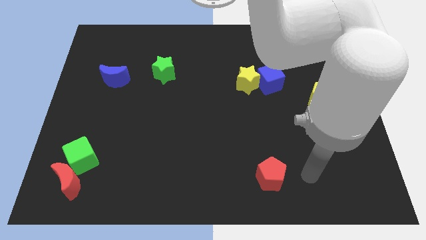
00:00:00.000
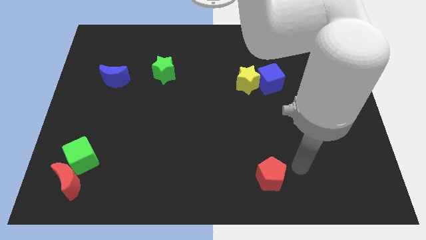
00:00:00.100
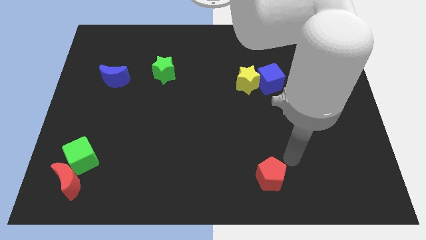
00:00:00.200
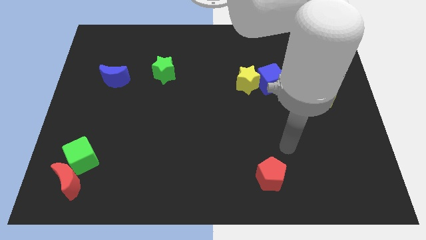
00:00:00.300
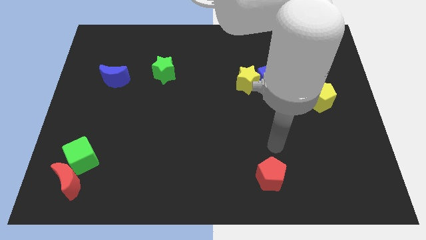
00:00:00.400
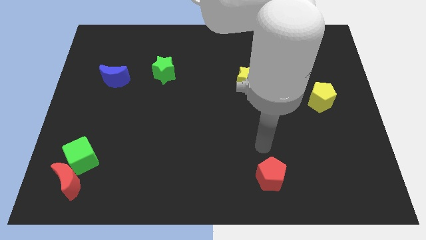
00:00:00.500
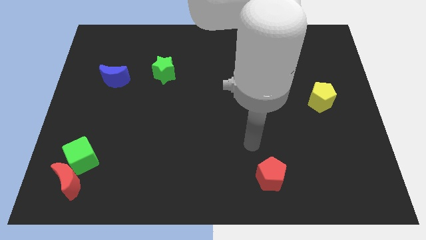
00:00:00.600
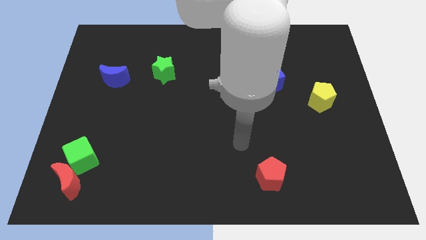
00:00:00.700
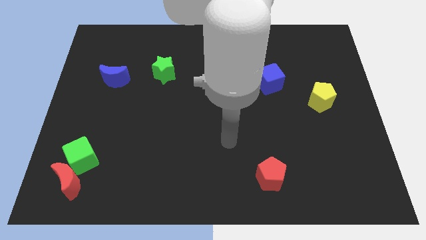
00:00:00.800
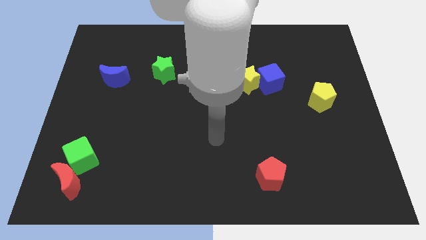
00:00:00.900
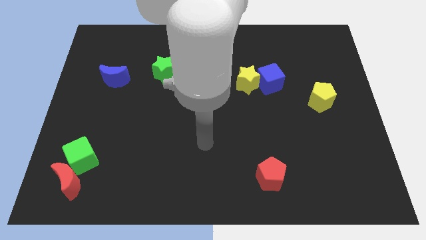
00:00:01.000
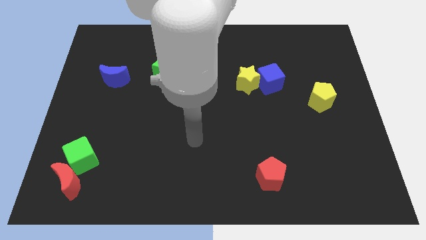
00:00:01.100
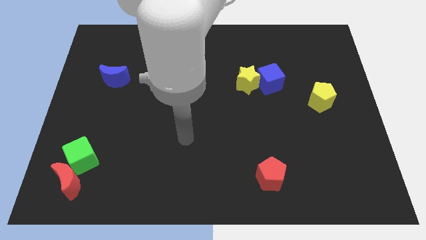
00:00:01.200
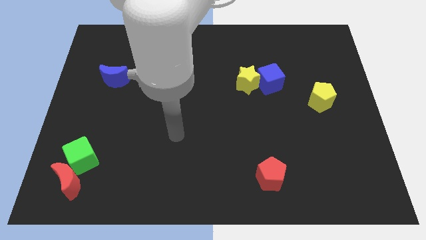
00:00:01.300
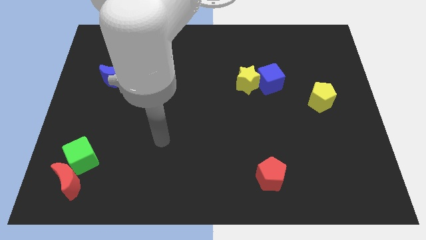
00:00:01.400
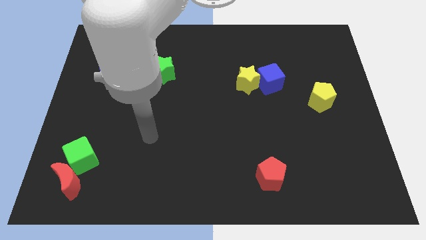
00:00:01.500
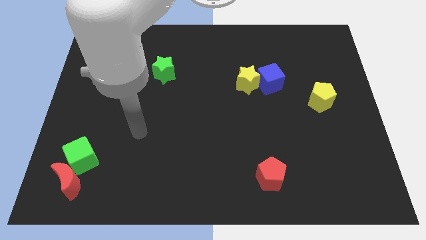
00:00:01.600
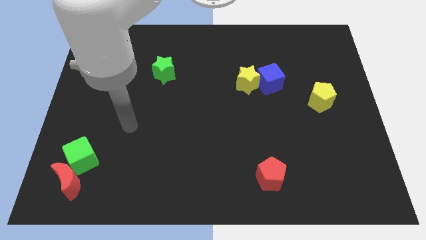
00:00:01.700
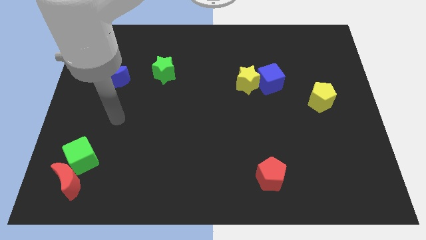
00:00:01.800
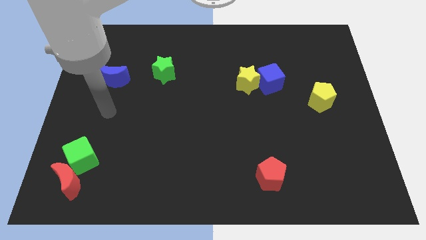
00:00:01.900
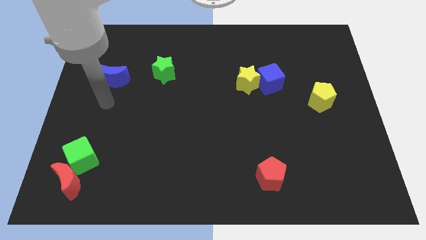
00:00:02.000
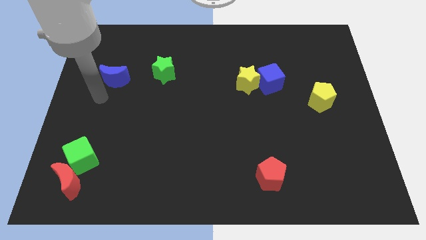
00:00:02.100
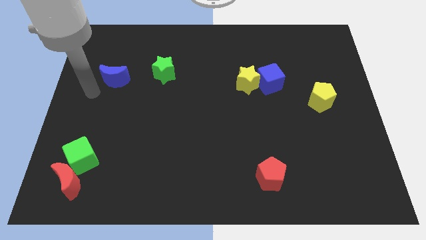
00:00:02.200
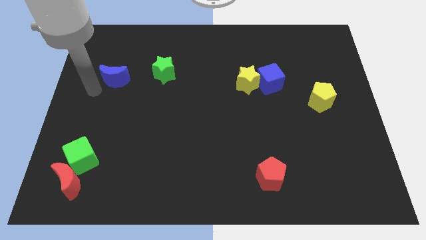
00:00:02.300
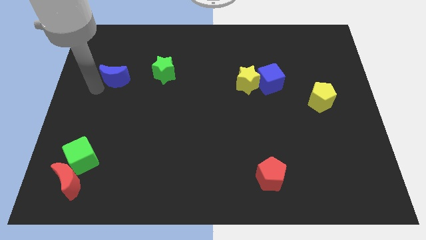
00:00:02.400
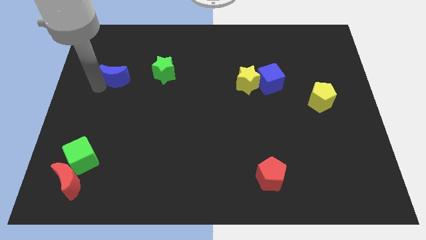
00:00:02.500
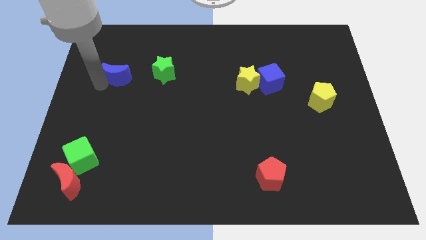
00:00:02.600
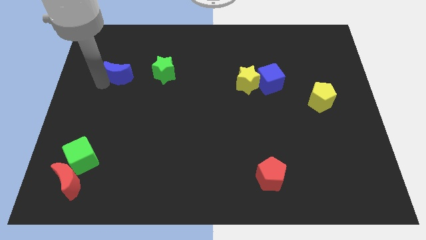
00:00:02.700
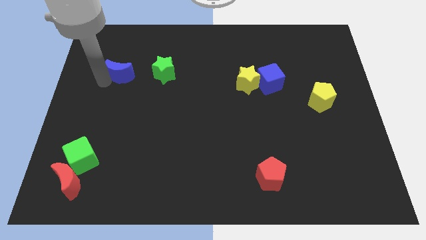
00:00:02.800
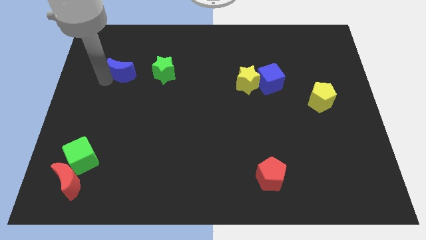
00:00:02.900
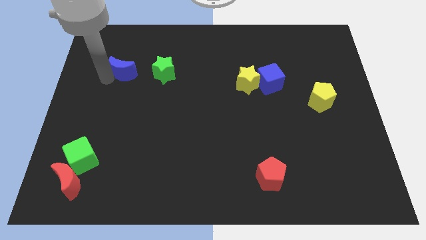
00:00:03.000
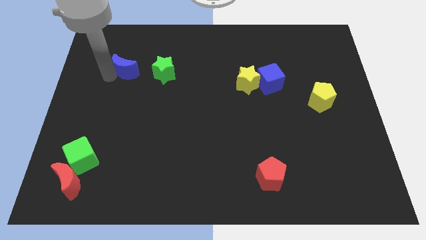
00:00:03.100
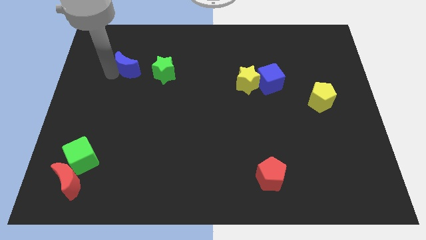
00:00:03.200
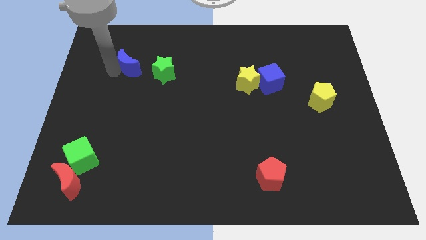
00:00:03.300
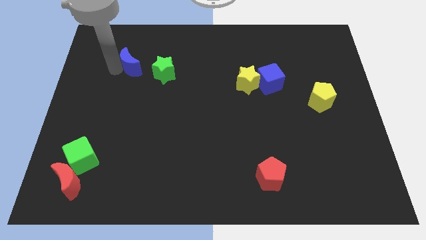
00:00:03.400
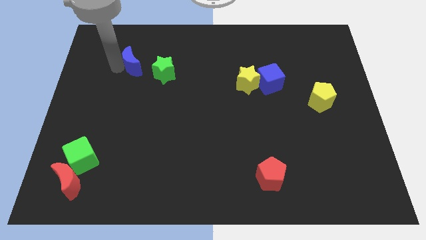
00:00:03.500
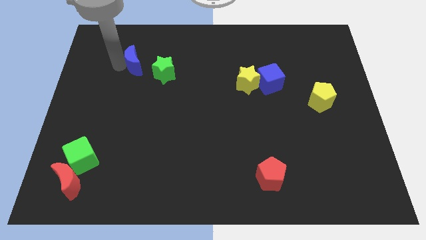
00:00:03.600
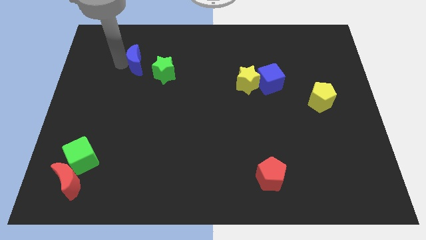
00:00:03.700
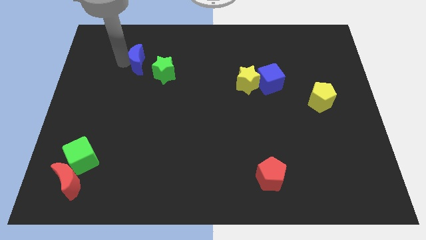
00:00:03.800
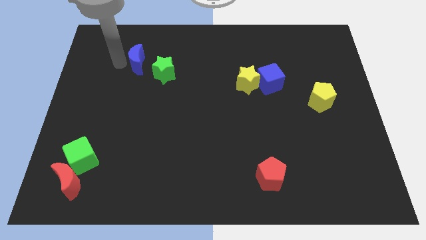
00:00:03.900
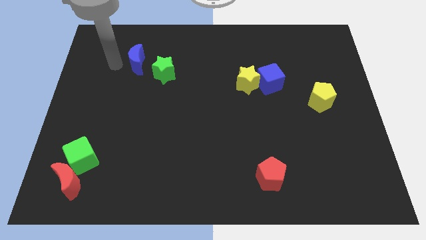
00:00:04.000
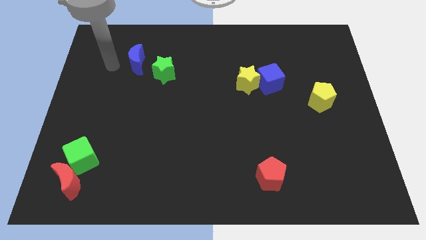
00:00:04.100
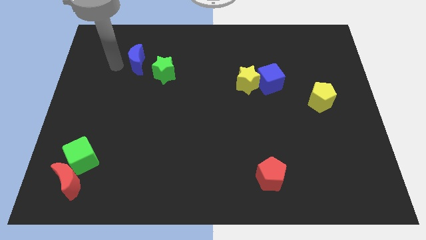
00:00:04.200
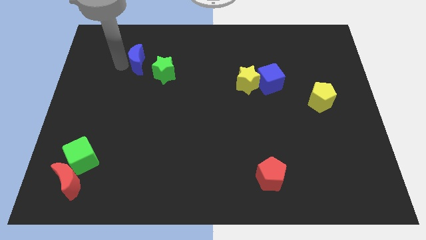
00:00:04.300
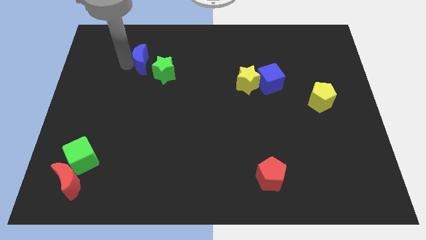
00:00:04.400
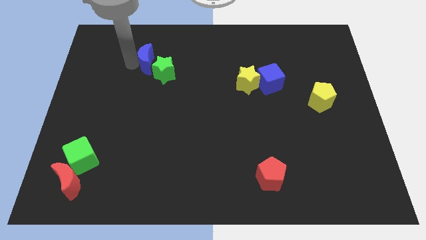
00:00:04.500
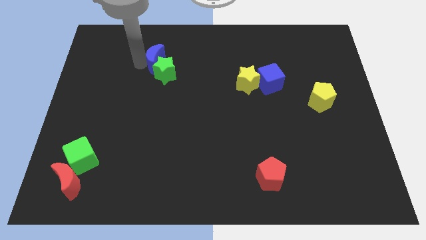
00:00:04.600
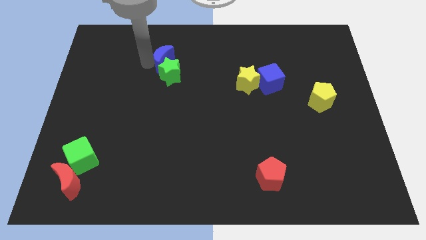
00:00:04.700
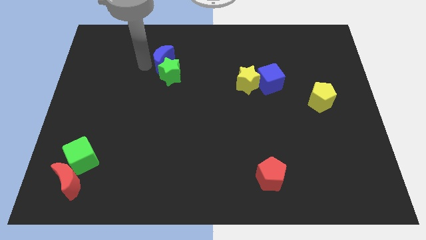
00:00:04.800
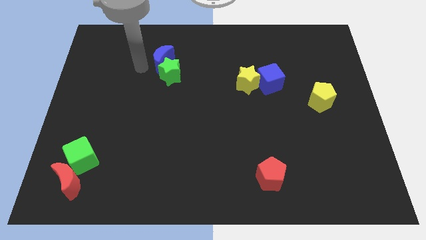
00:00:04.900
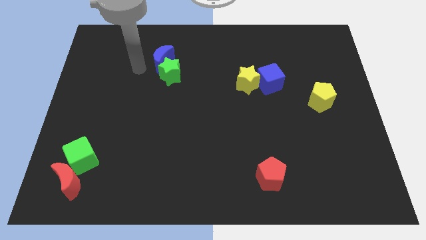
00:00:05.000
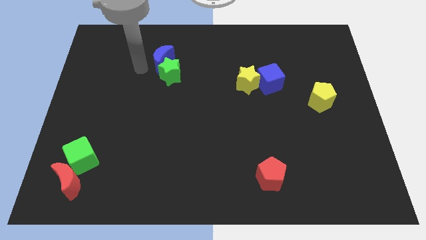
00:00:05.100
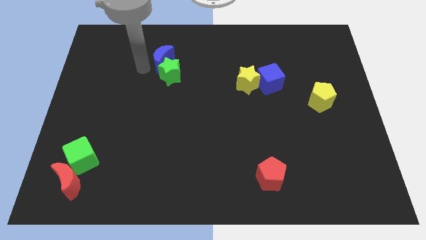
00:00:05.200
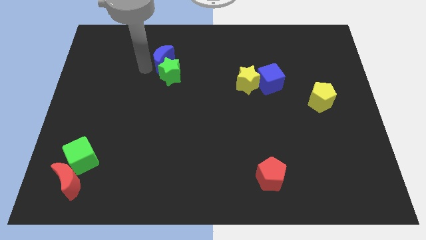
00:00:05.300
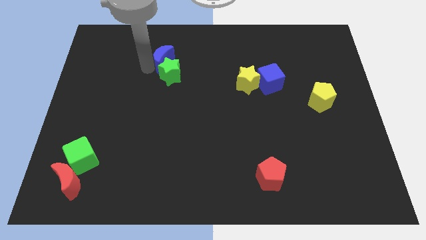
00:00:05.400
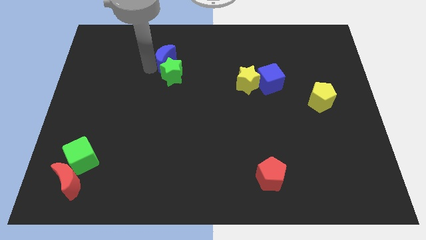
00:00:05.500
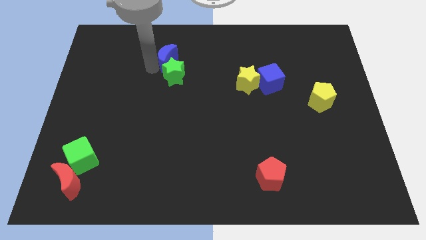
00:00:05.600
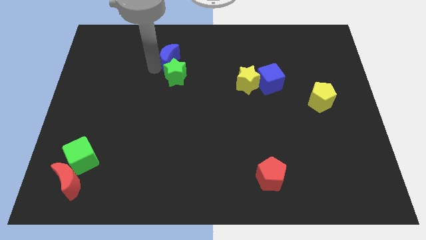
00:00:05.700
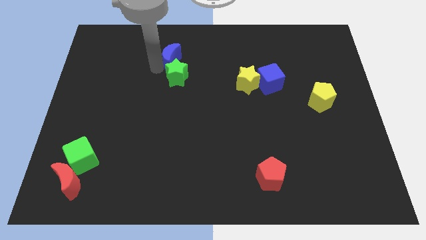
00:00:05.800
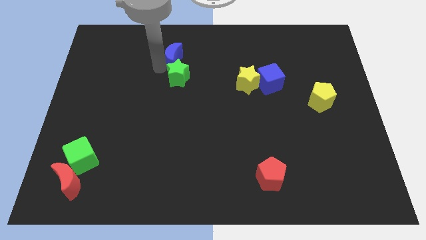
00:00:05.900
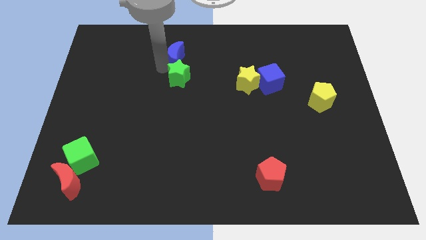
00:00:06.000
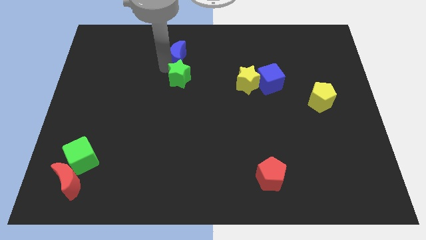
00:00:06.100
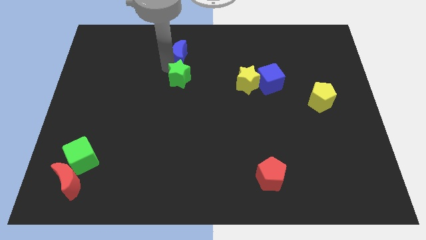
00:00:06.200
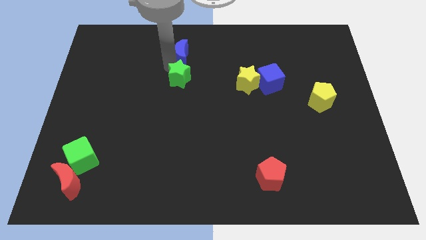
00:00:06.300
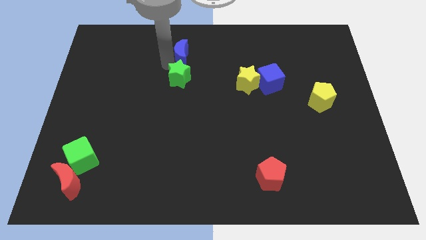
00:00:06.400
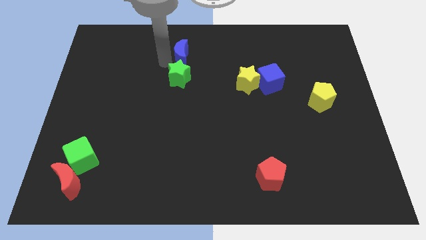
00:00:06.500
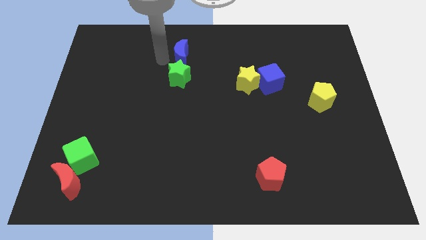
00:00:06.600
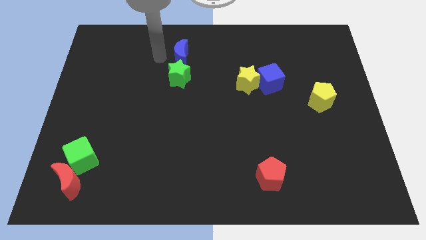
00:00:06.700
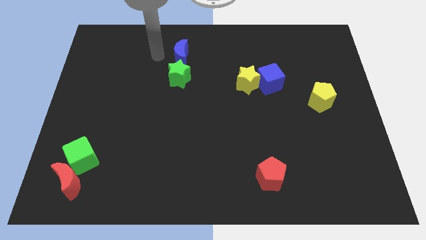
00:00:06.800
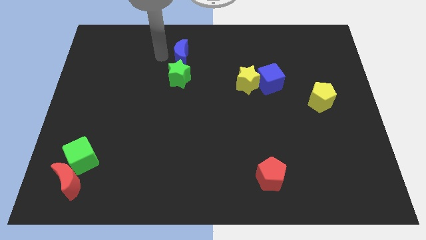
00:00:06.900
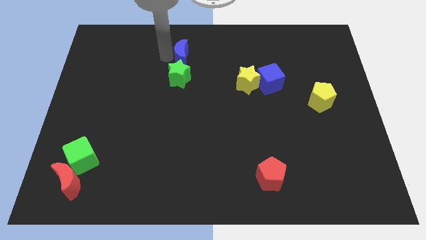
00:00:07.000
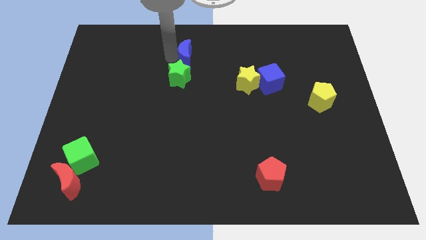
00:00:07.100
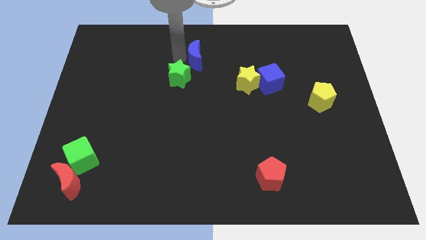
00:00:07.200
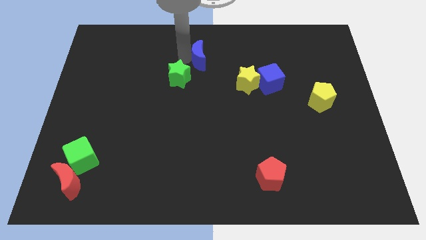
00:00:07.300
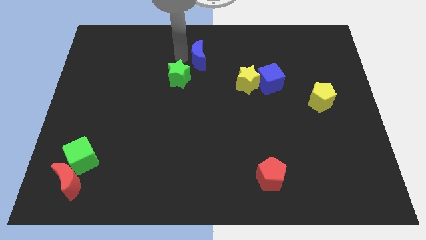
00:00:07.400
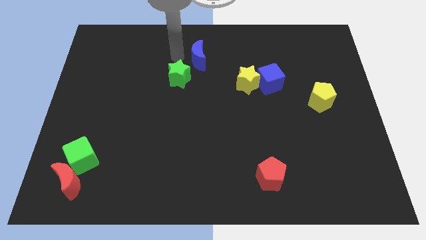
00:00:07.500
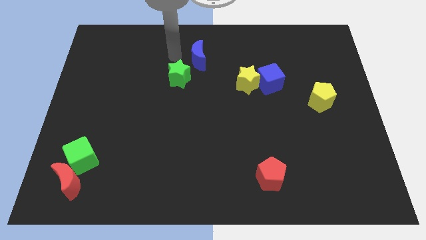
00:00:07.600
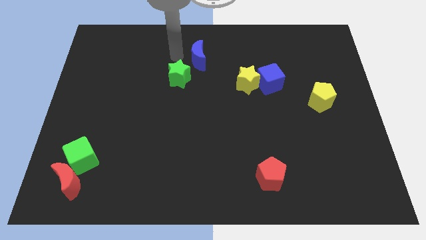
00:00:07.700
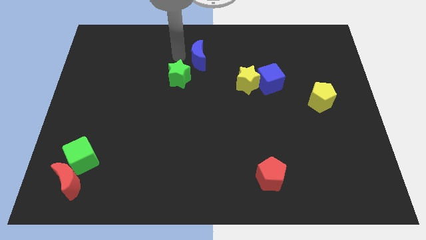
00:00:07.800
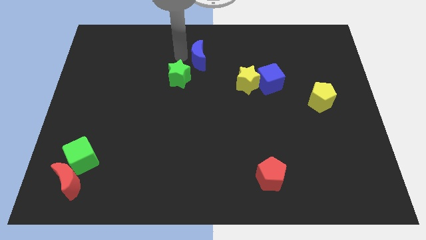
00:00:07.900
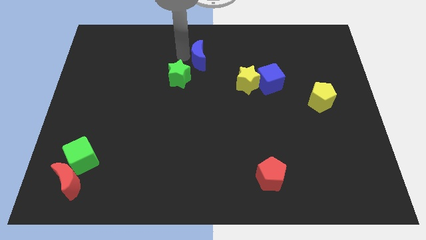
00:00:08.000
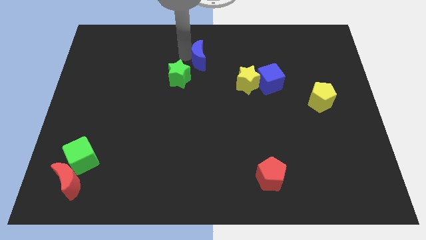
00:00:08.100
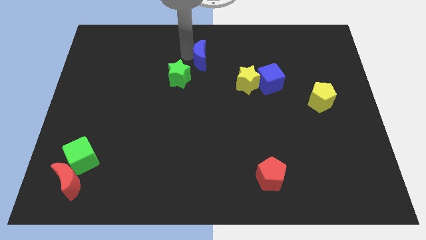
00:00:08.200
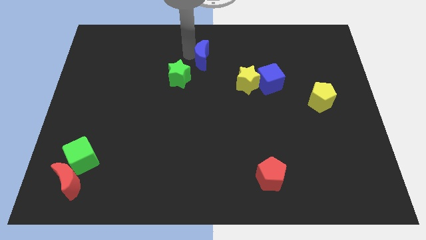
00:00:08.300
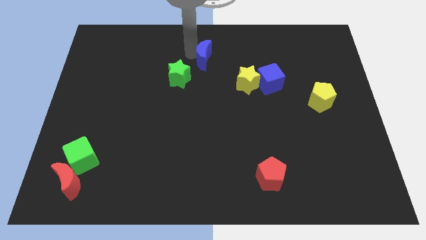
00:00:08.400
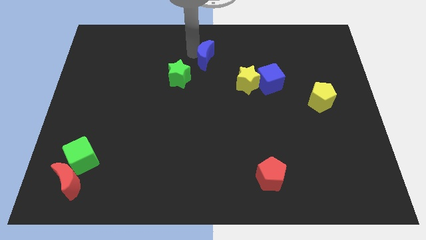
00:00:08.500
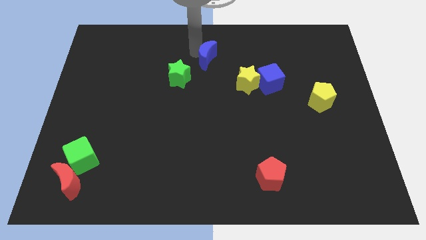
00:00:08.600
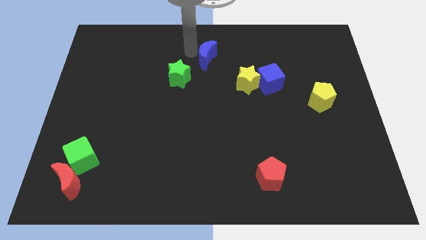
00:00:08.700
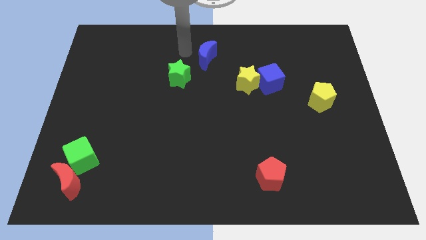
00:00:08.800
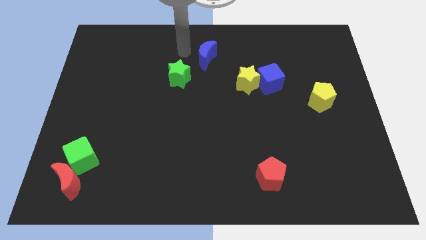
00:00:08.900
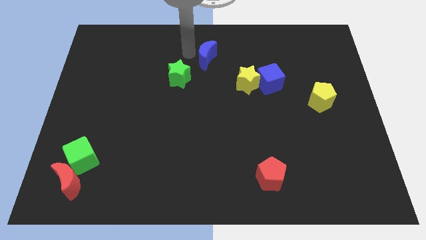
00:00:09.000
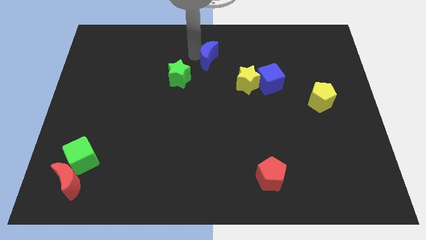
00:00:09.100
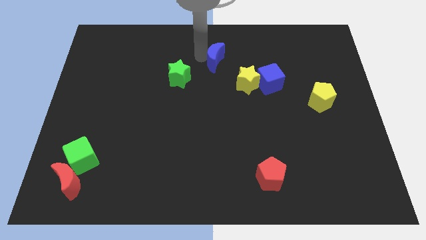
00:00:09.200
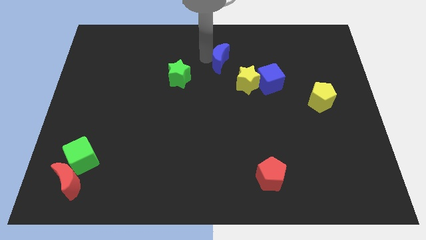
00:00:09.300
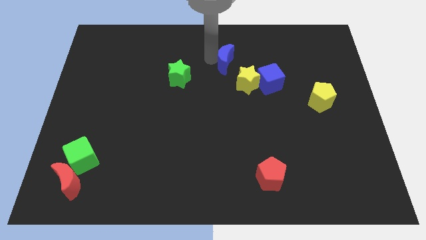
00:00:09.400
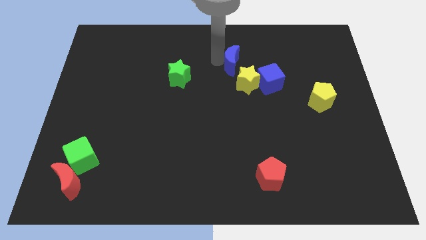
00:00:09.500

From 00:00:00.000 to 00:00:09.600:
push the blue moon to the top left side of the blue cube
